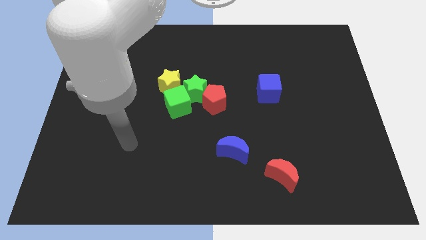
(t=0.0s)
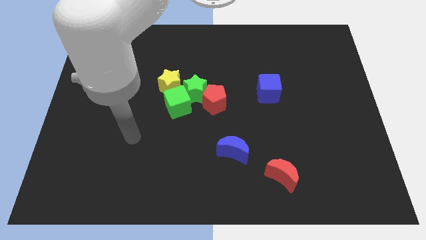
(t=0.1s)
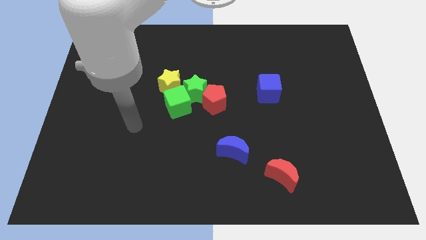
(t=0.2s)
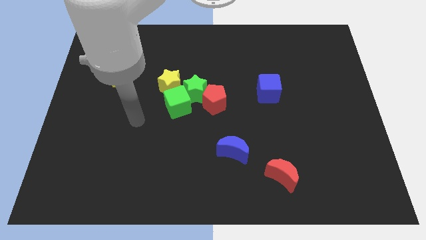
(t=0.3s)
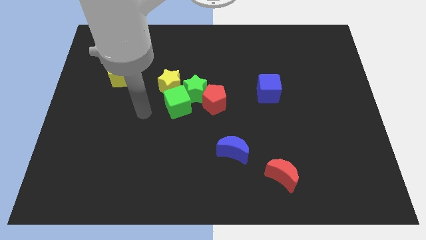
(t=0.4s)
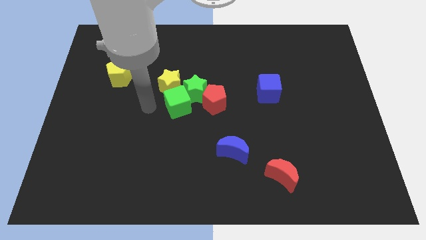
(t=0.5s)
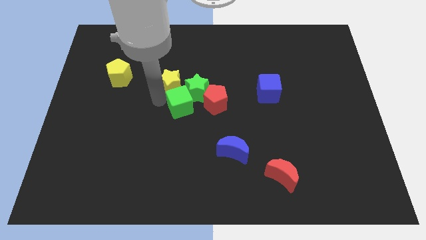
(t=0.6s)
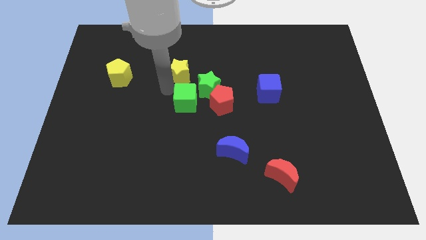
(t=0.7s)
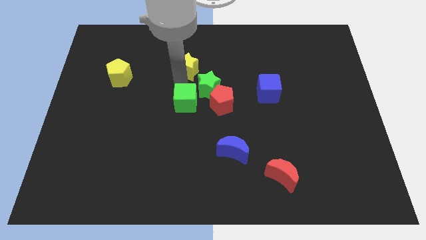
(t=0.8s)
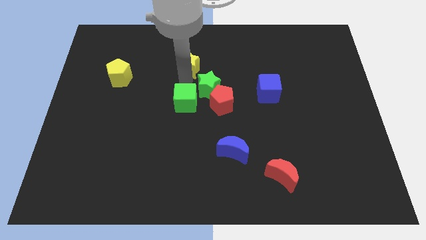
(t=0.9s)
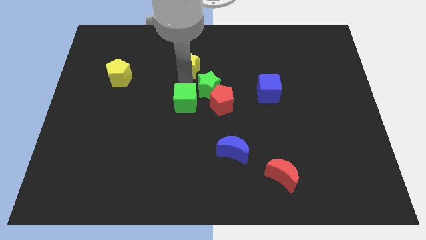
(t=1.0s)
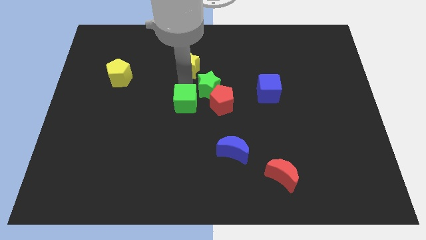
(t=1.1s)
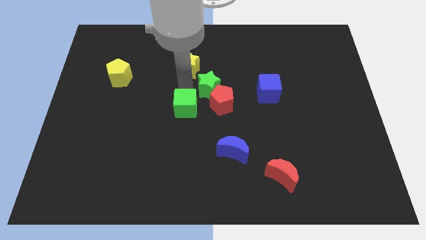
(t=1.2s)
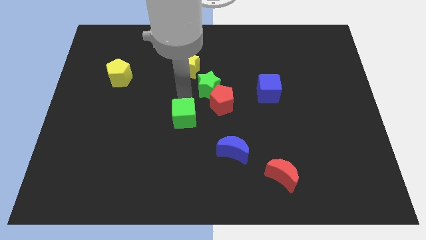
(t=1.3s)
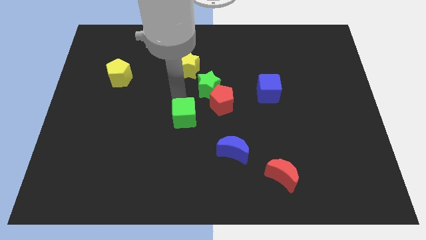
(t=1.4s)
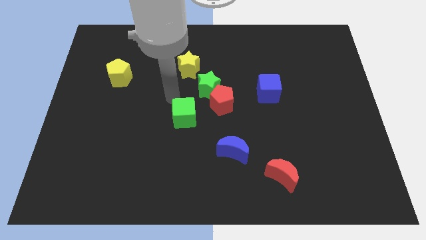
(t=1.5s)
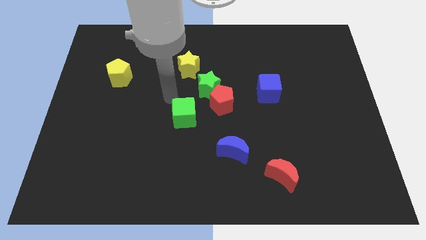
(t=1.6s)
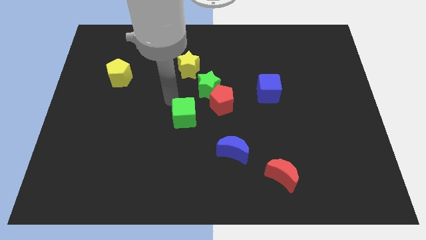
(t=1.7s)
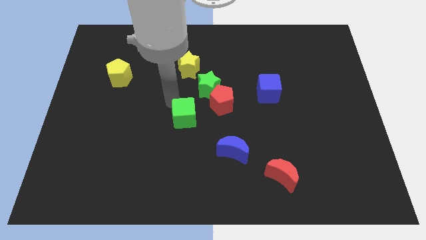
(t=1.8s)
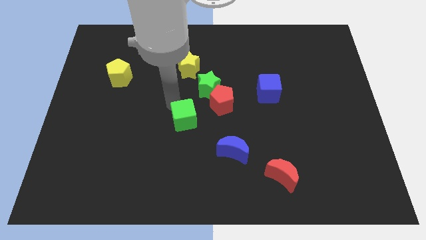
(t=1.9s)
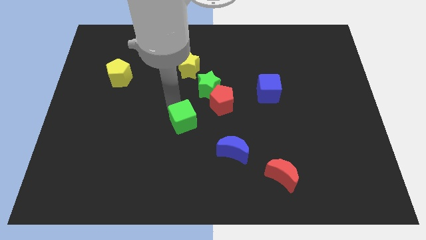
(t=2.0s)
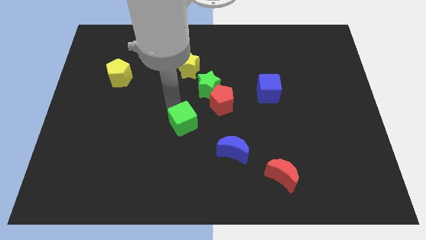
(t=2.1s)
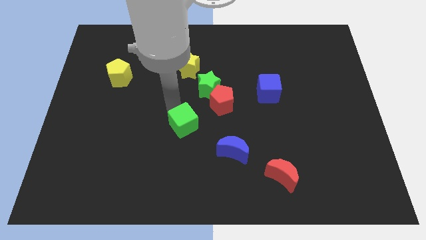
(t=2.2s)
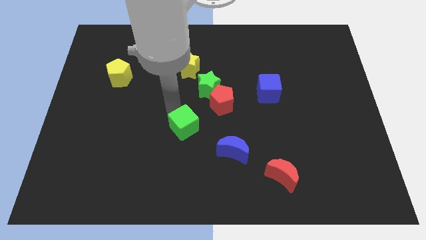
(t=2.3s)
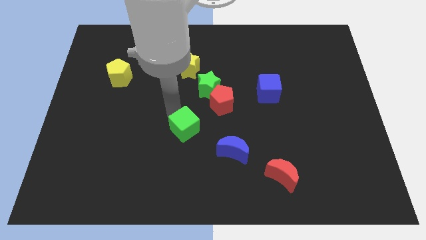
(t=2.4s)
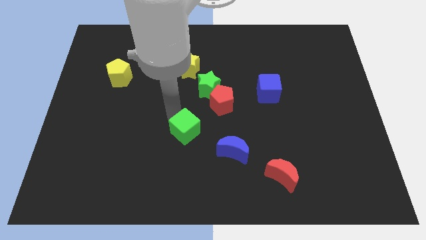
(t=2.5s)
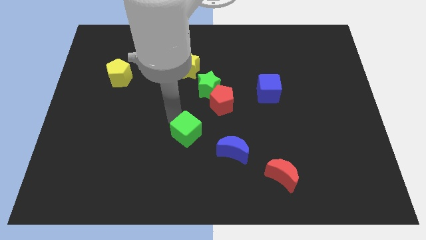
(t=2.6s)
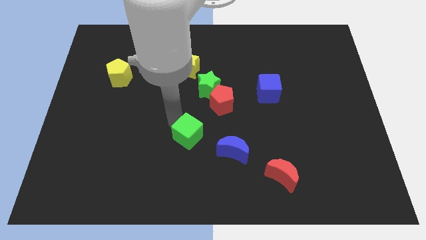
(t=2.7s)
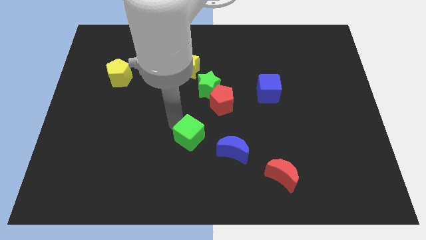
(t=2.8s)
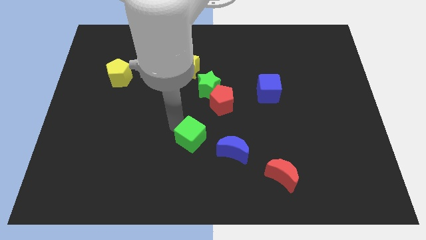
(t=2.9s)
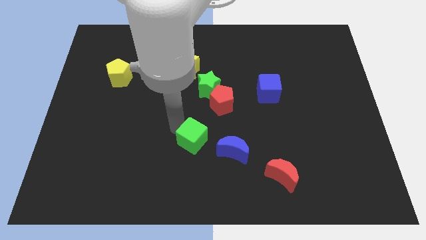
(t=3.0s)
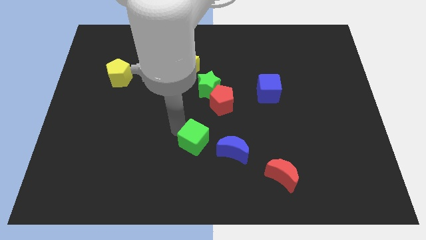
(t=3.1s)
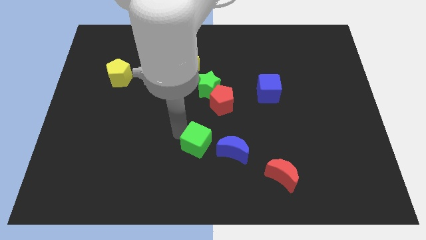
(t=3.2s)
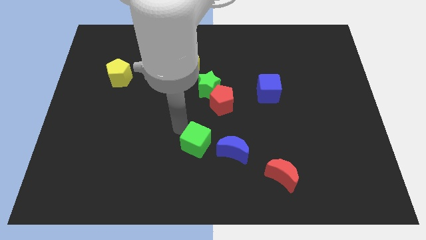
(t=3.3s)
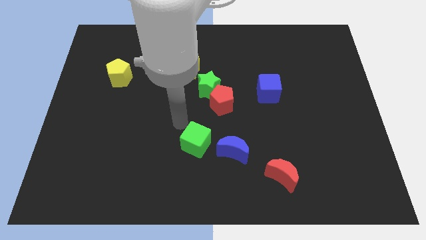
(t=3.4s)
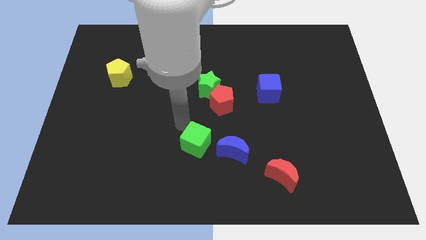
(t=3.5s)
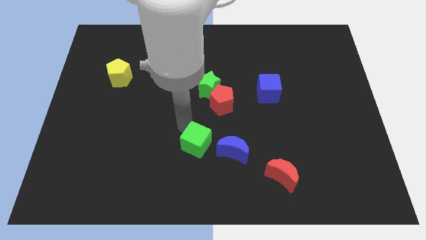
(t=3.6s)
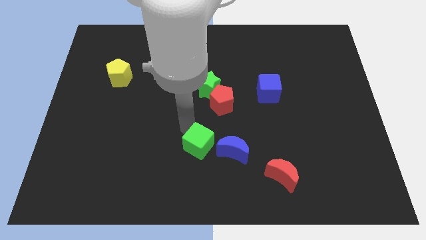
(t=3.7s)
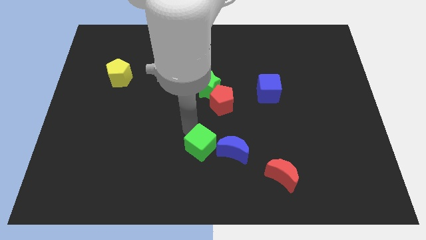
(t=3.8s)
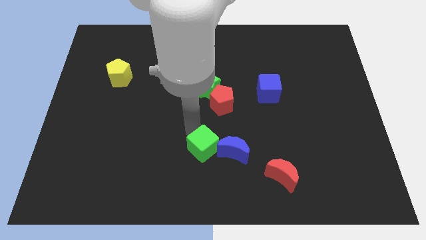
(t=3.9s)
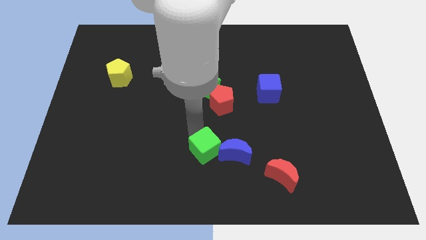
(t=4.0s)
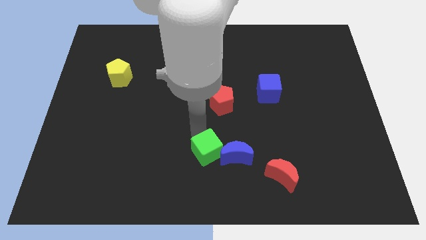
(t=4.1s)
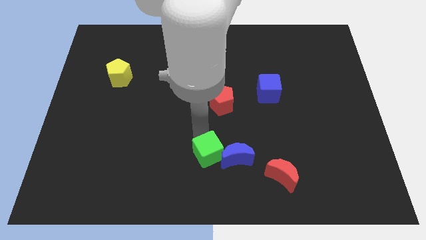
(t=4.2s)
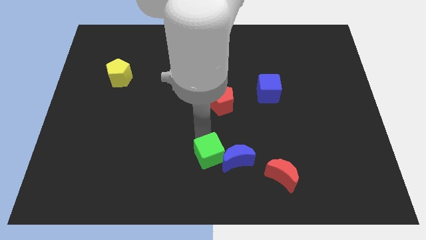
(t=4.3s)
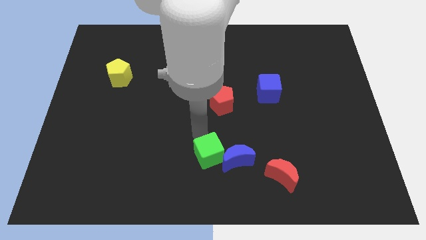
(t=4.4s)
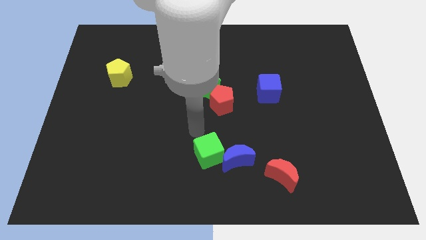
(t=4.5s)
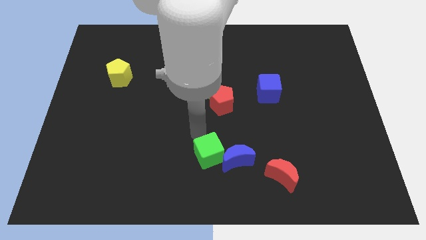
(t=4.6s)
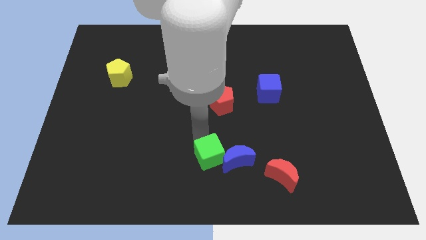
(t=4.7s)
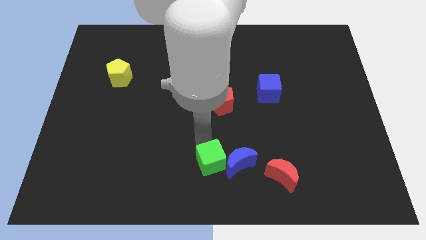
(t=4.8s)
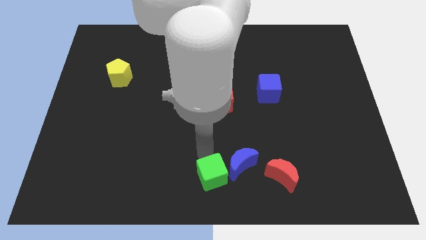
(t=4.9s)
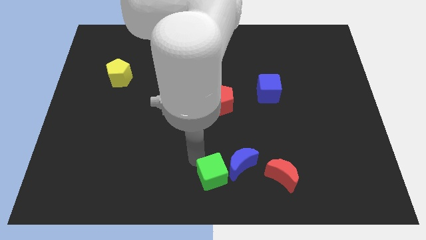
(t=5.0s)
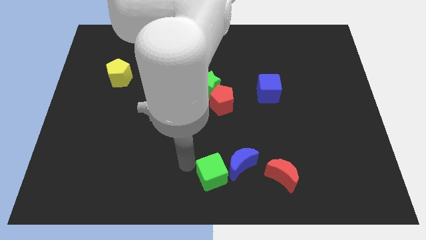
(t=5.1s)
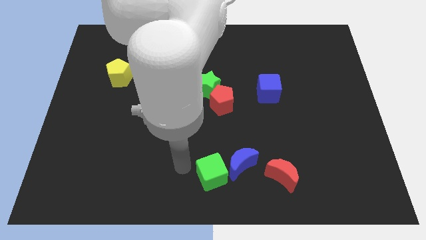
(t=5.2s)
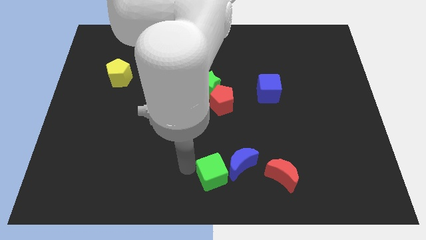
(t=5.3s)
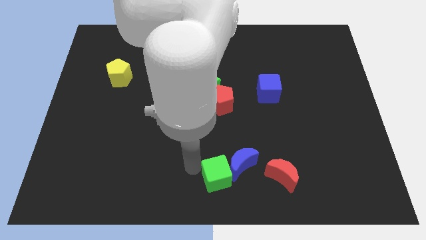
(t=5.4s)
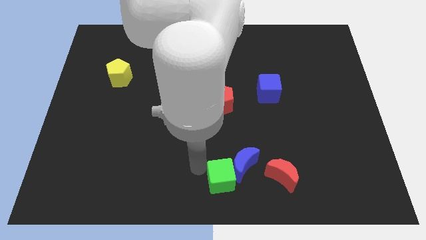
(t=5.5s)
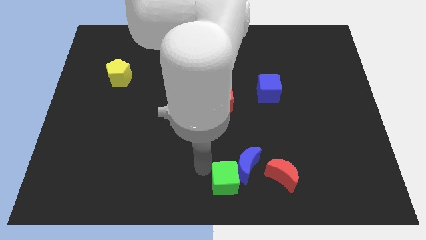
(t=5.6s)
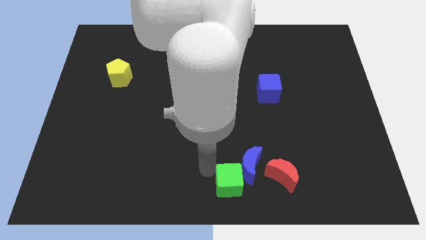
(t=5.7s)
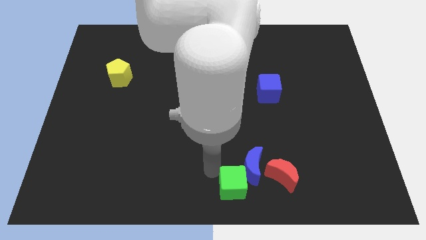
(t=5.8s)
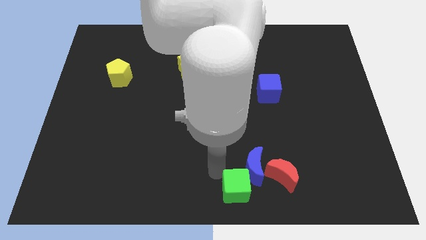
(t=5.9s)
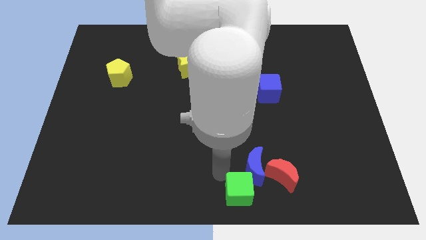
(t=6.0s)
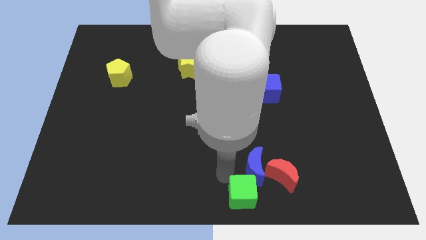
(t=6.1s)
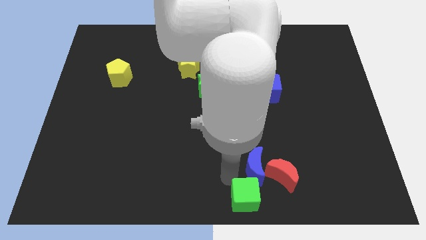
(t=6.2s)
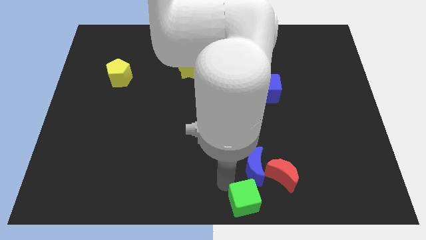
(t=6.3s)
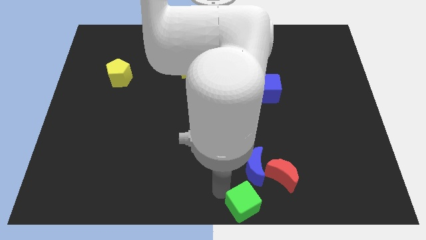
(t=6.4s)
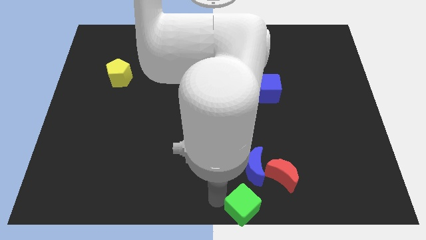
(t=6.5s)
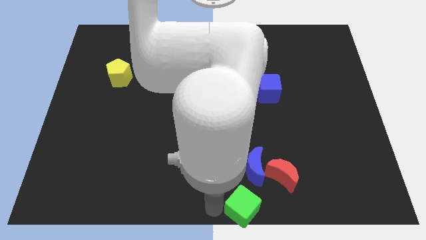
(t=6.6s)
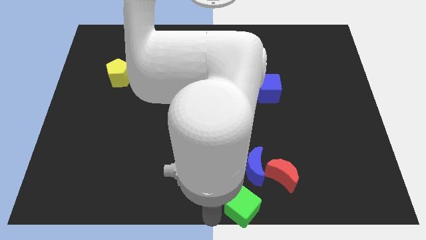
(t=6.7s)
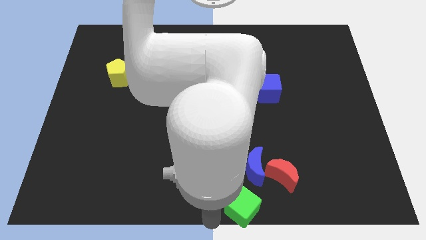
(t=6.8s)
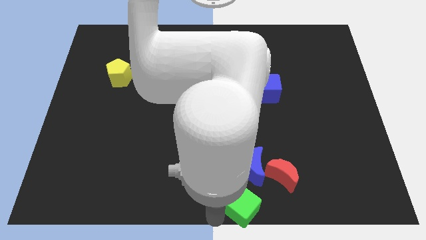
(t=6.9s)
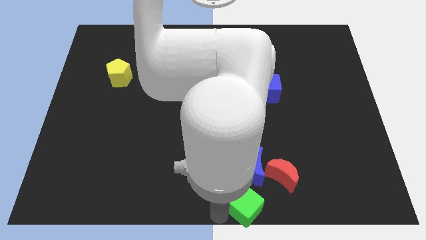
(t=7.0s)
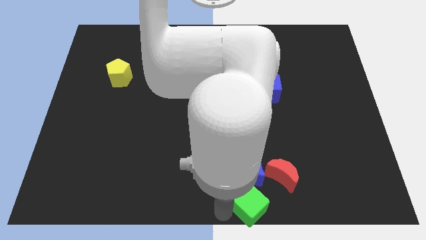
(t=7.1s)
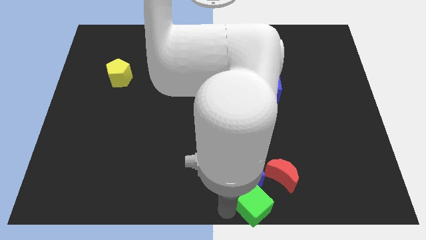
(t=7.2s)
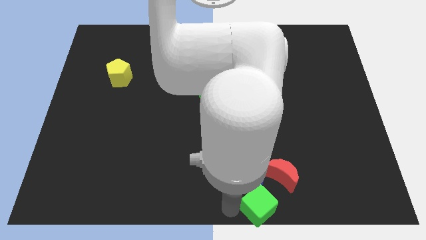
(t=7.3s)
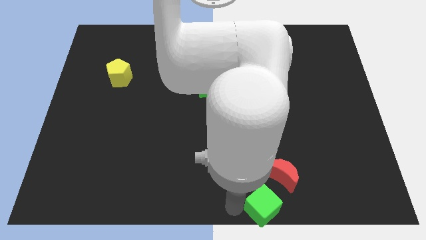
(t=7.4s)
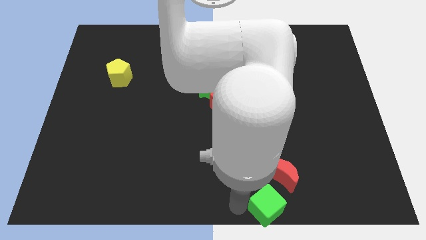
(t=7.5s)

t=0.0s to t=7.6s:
slide the green cube to the bottom right side of the blue moon
